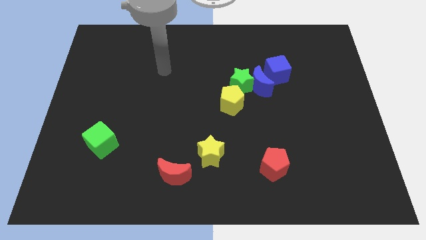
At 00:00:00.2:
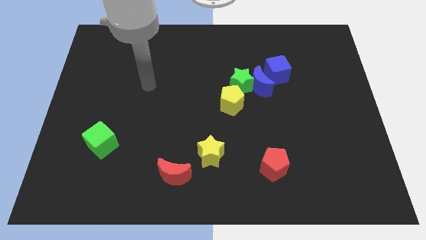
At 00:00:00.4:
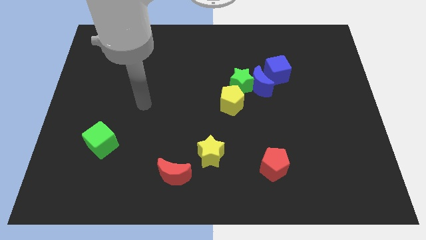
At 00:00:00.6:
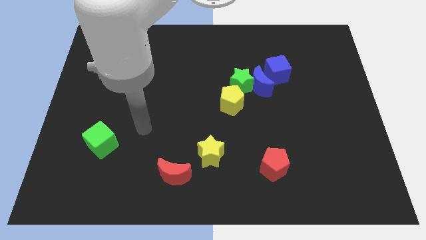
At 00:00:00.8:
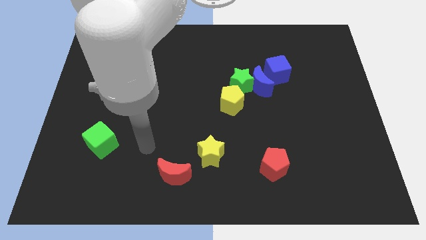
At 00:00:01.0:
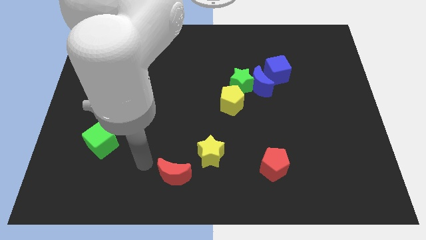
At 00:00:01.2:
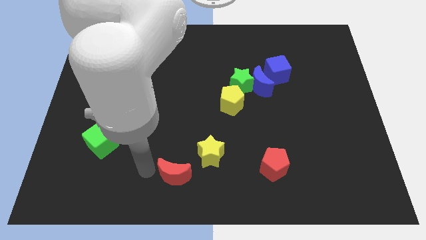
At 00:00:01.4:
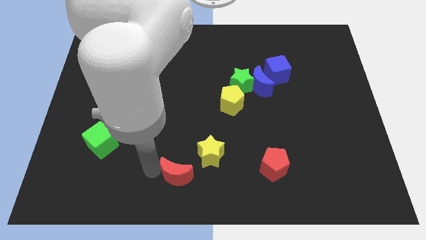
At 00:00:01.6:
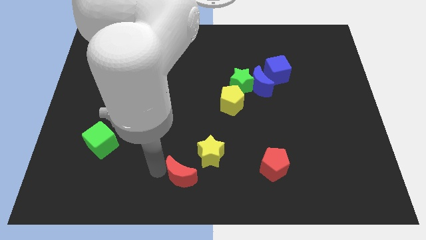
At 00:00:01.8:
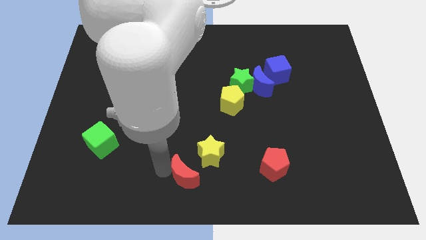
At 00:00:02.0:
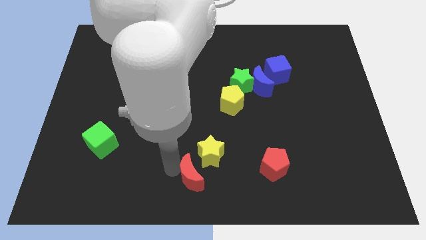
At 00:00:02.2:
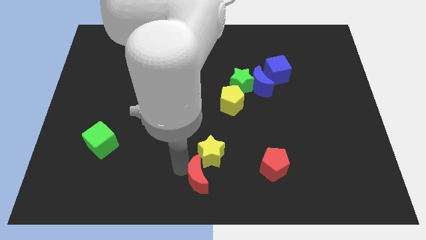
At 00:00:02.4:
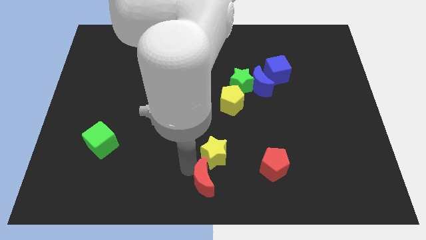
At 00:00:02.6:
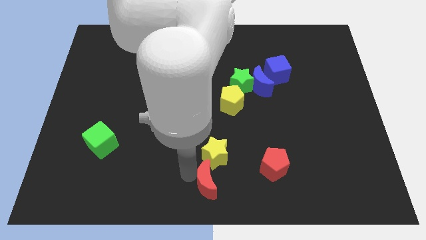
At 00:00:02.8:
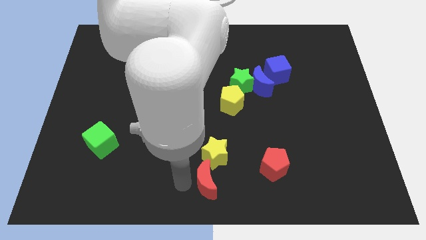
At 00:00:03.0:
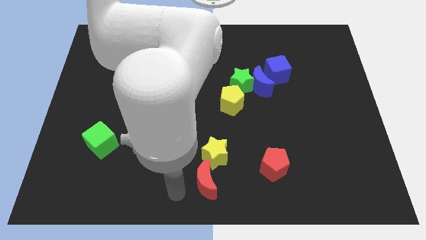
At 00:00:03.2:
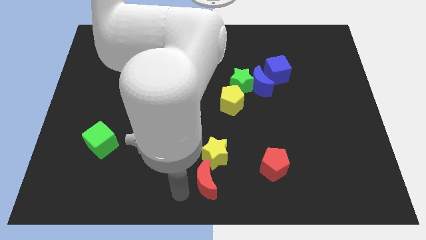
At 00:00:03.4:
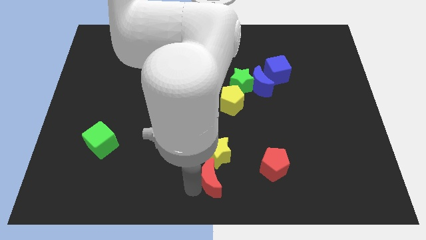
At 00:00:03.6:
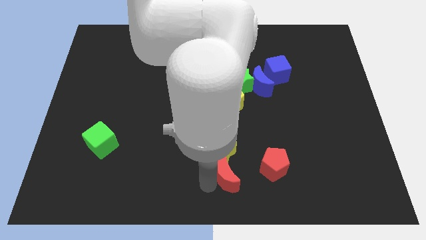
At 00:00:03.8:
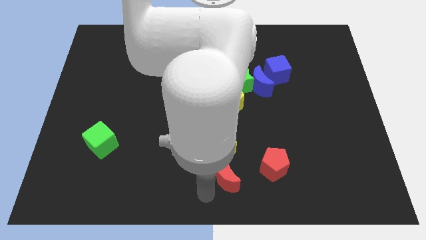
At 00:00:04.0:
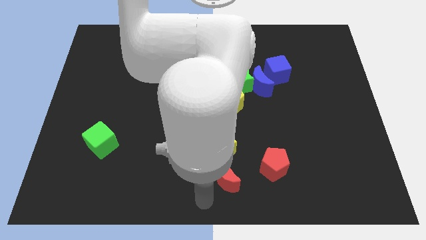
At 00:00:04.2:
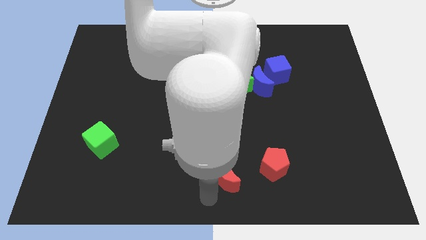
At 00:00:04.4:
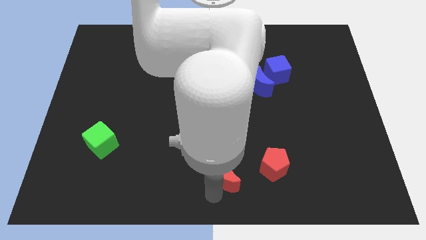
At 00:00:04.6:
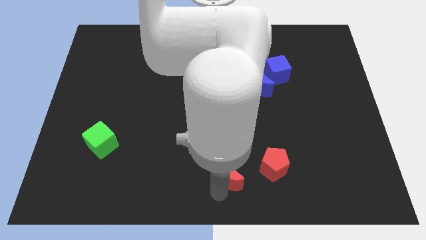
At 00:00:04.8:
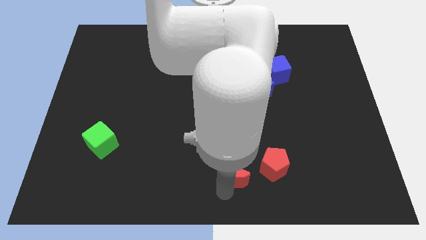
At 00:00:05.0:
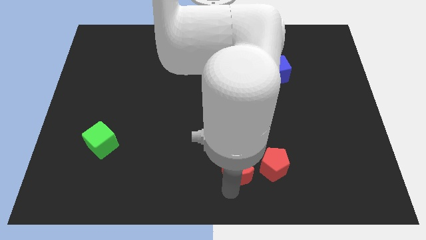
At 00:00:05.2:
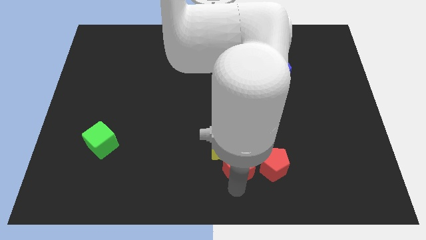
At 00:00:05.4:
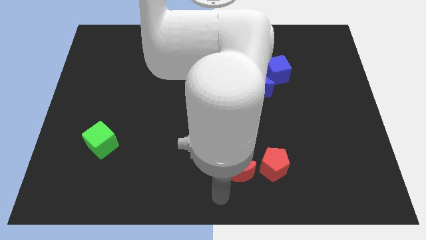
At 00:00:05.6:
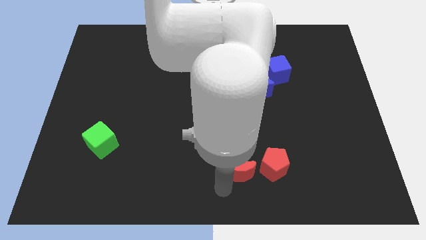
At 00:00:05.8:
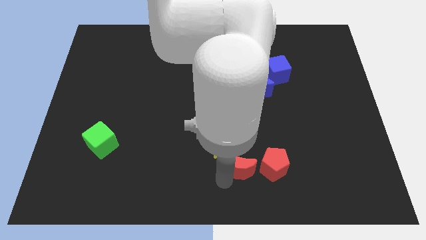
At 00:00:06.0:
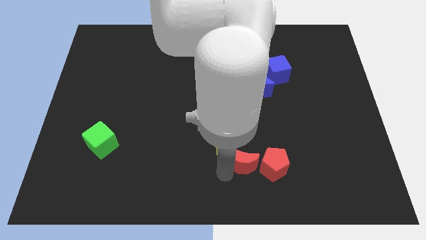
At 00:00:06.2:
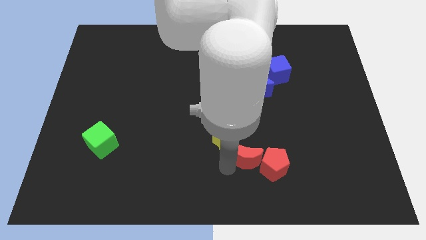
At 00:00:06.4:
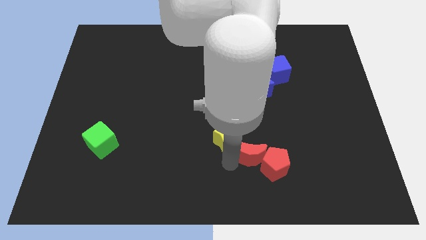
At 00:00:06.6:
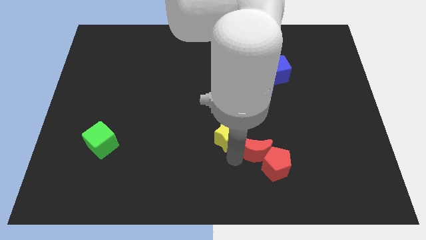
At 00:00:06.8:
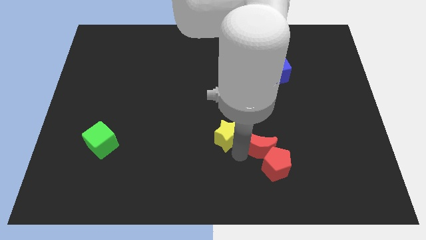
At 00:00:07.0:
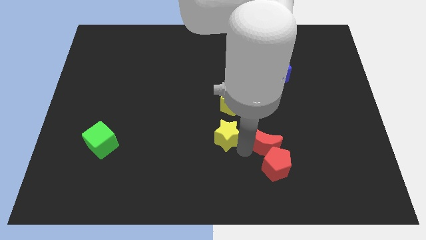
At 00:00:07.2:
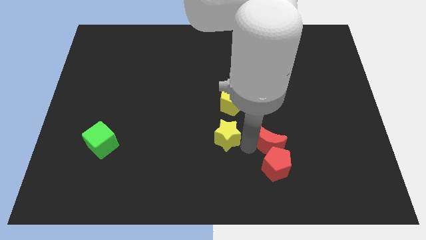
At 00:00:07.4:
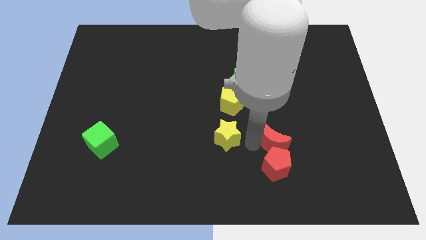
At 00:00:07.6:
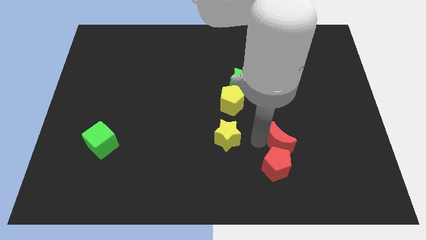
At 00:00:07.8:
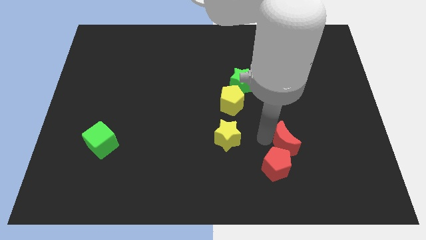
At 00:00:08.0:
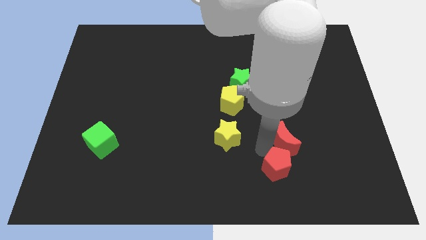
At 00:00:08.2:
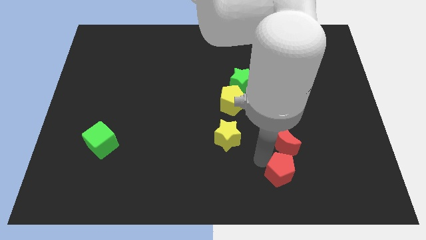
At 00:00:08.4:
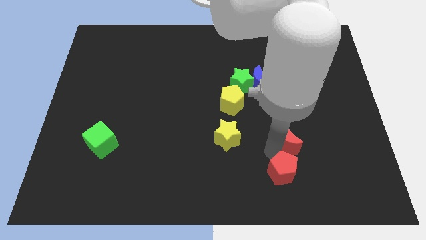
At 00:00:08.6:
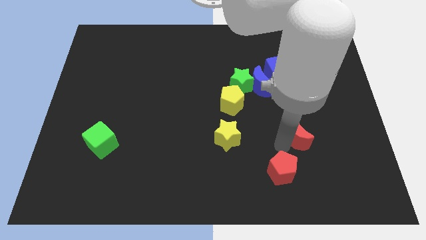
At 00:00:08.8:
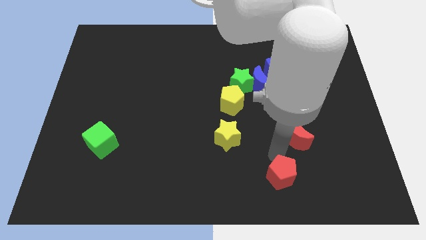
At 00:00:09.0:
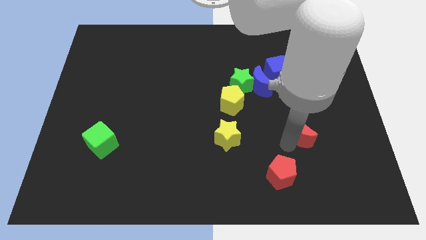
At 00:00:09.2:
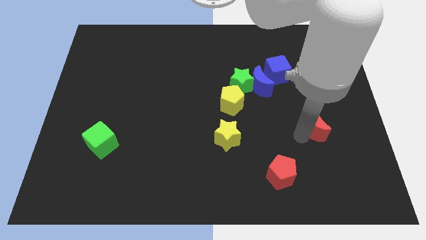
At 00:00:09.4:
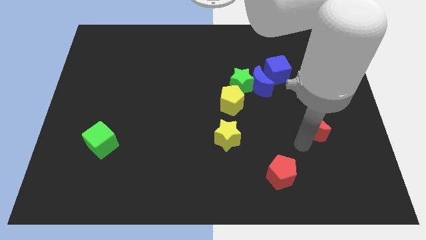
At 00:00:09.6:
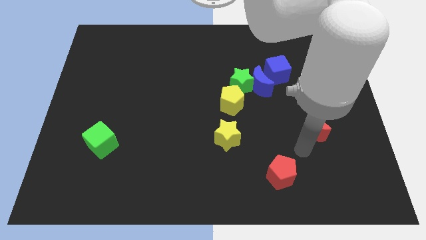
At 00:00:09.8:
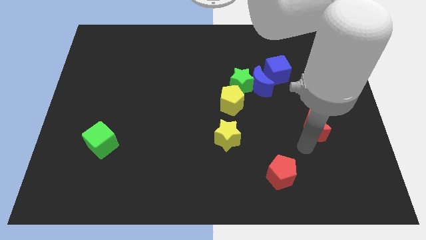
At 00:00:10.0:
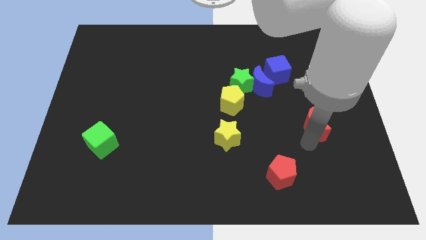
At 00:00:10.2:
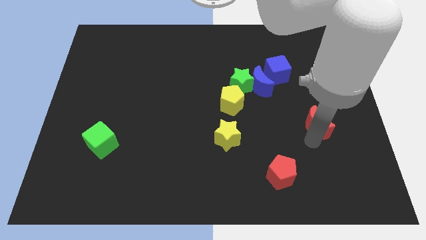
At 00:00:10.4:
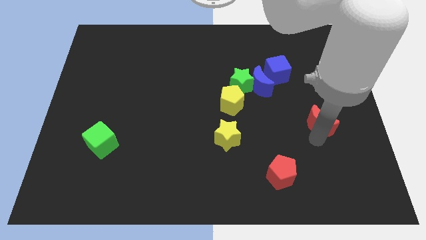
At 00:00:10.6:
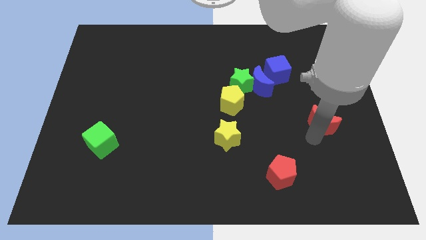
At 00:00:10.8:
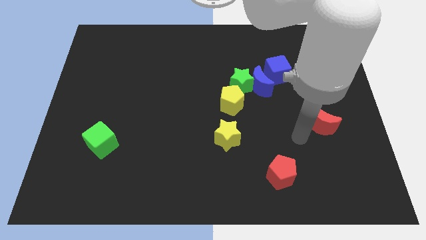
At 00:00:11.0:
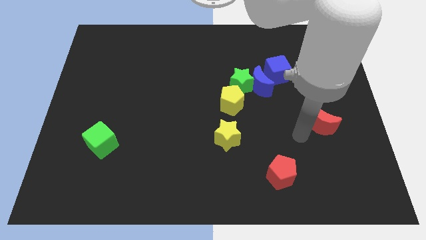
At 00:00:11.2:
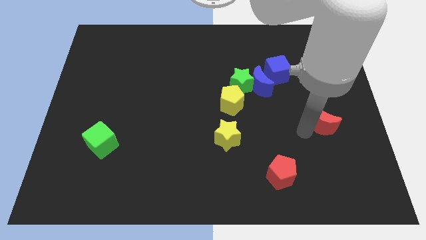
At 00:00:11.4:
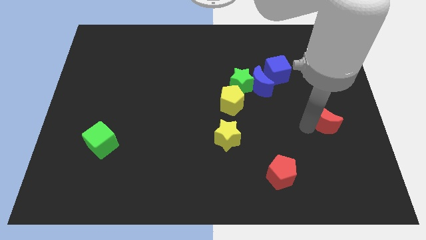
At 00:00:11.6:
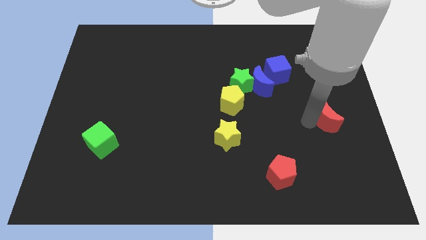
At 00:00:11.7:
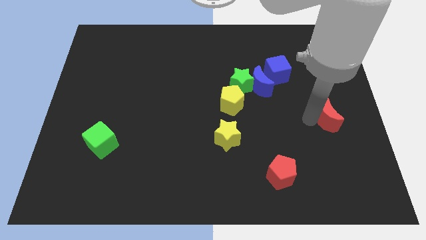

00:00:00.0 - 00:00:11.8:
move the red moon to the center right

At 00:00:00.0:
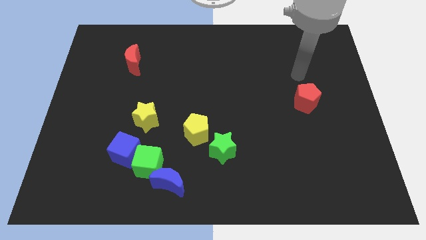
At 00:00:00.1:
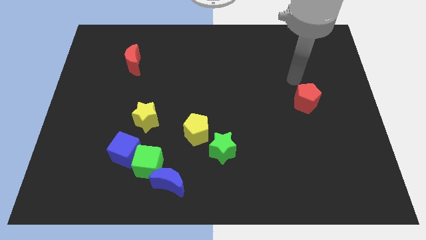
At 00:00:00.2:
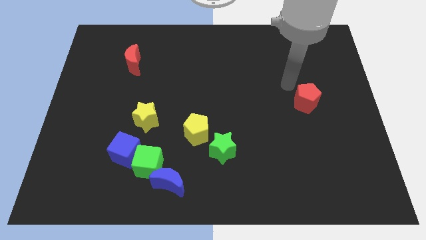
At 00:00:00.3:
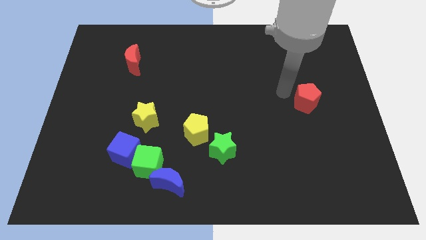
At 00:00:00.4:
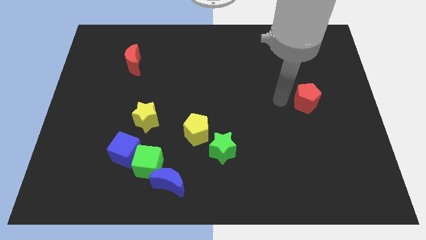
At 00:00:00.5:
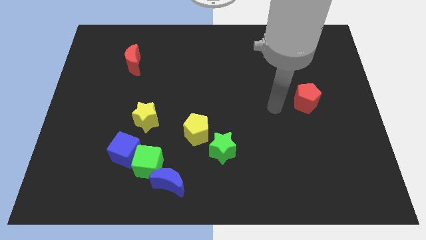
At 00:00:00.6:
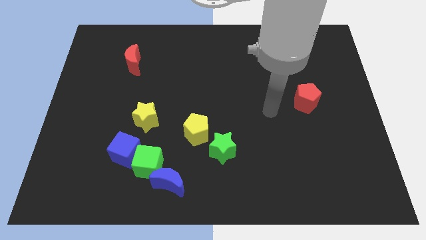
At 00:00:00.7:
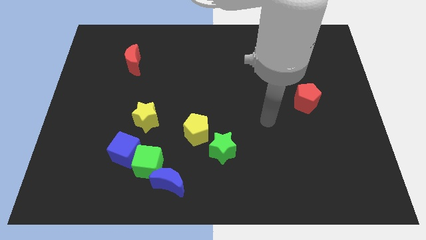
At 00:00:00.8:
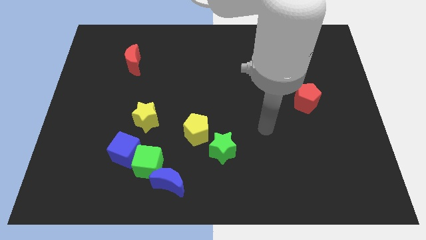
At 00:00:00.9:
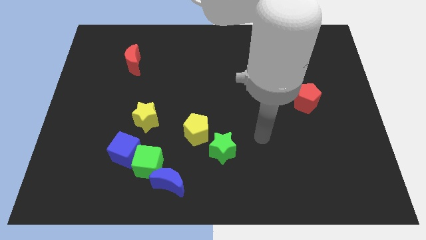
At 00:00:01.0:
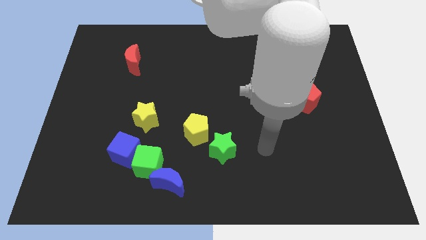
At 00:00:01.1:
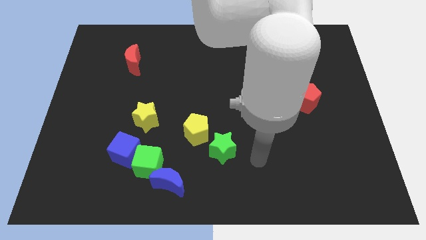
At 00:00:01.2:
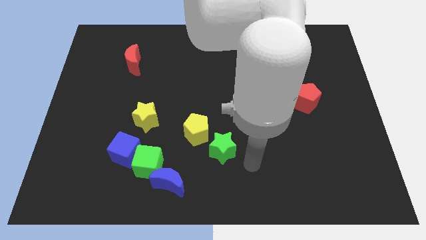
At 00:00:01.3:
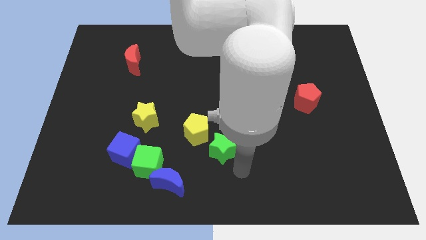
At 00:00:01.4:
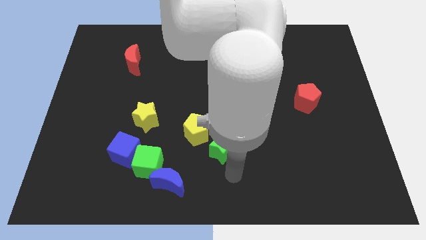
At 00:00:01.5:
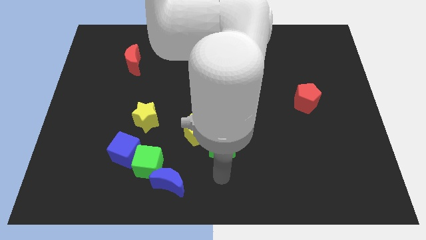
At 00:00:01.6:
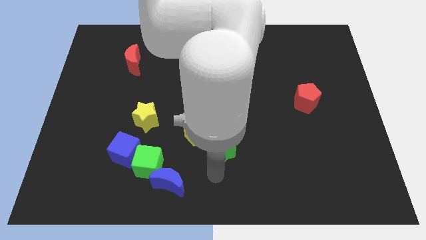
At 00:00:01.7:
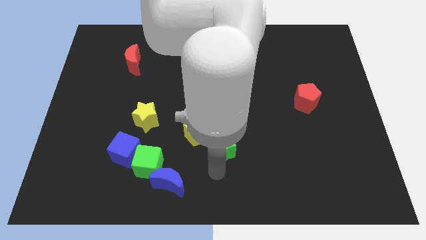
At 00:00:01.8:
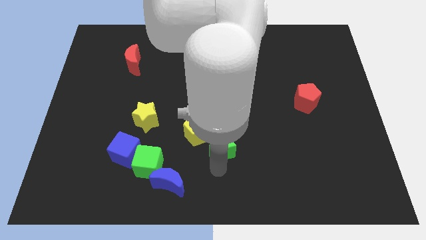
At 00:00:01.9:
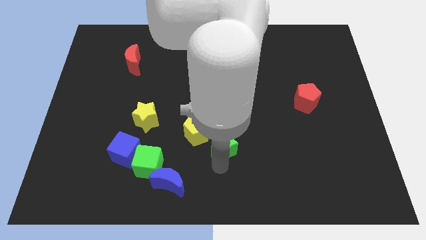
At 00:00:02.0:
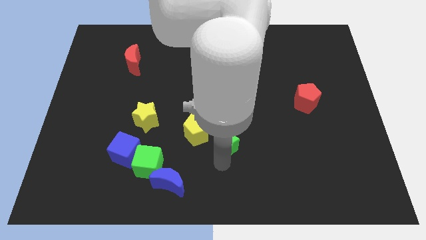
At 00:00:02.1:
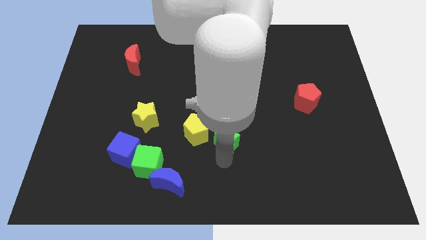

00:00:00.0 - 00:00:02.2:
push the green star to the middle of the board
